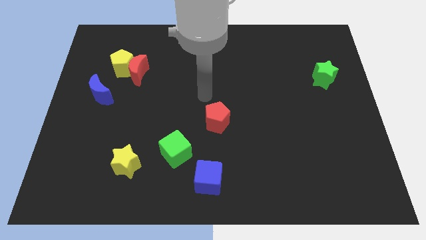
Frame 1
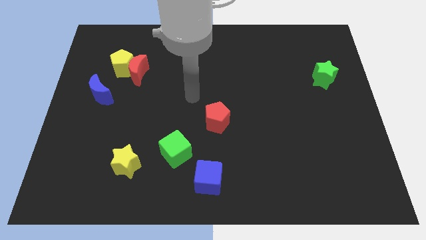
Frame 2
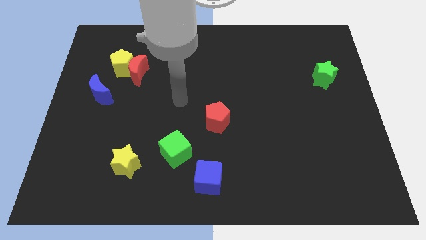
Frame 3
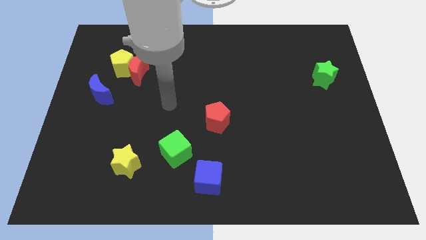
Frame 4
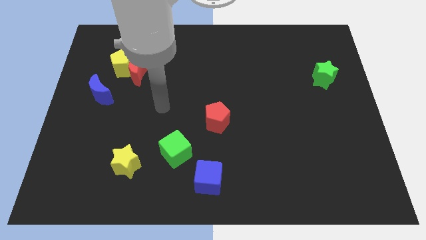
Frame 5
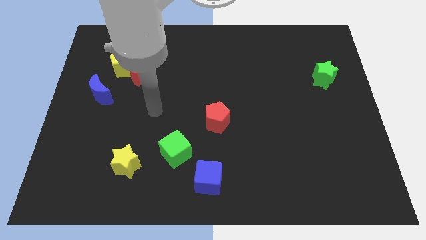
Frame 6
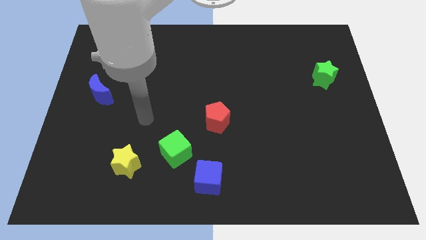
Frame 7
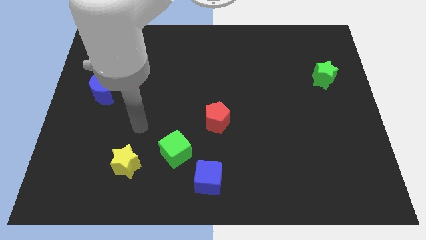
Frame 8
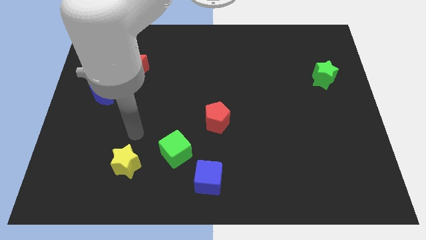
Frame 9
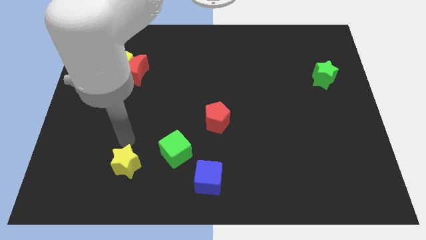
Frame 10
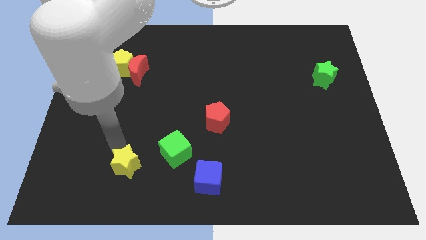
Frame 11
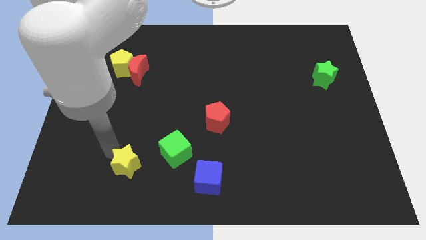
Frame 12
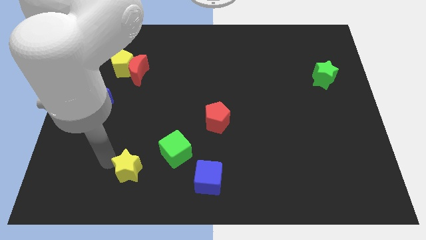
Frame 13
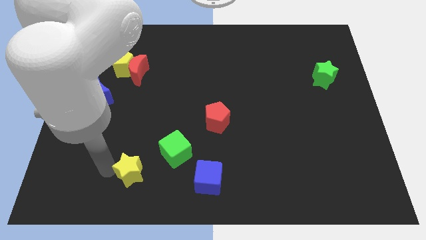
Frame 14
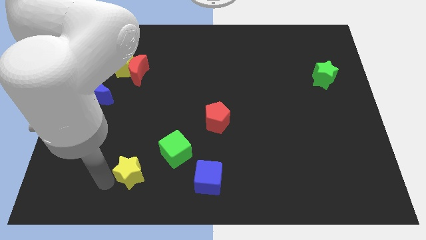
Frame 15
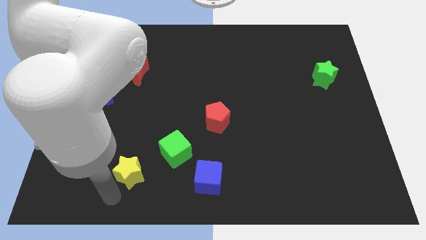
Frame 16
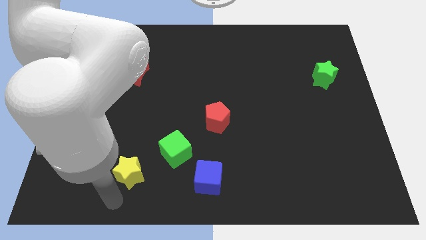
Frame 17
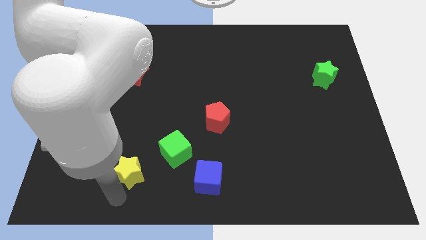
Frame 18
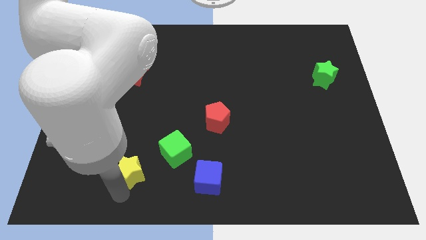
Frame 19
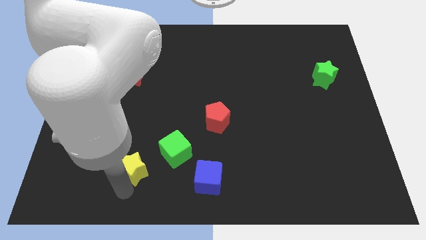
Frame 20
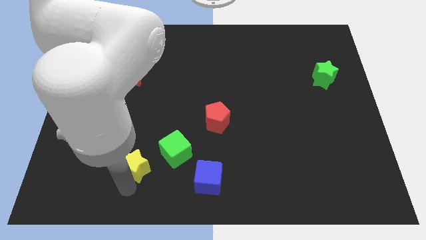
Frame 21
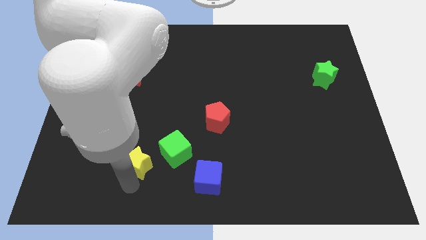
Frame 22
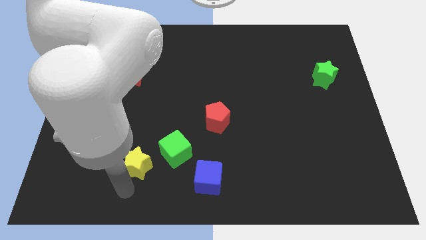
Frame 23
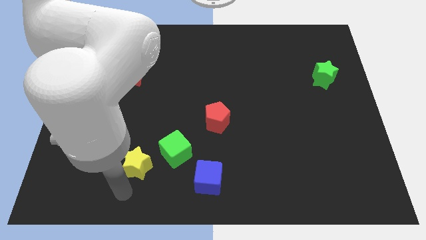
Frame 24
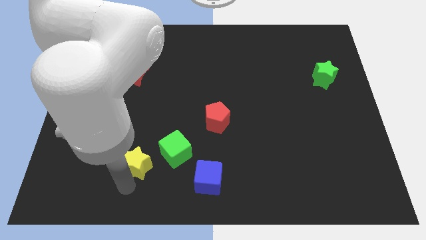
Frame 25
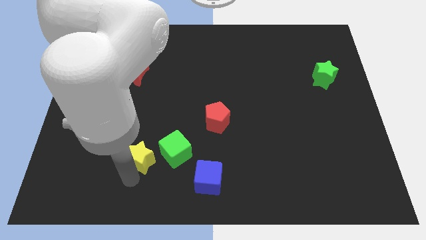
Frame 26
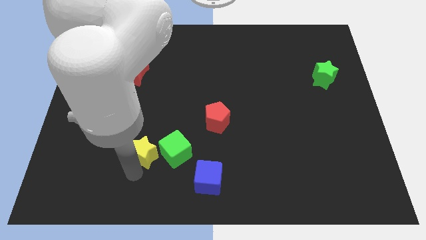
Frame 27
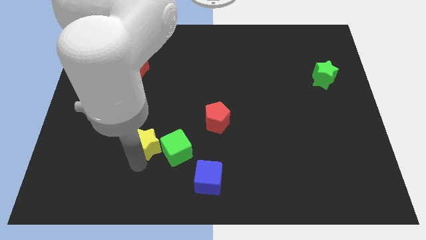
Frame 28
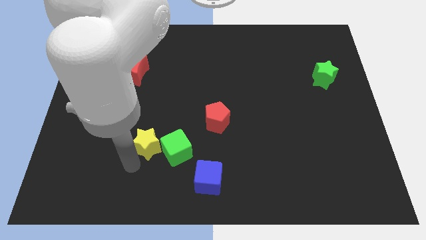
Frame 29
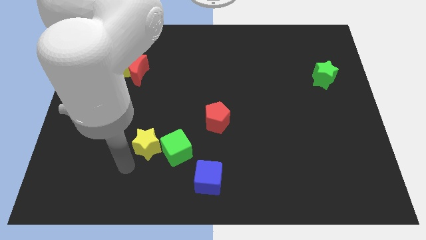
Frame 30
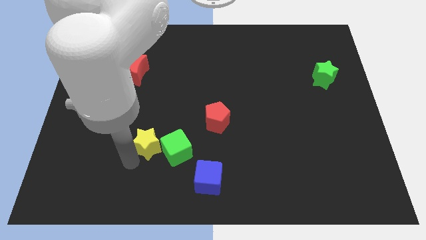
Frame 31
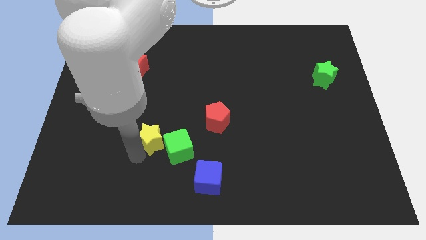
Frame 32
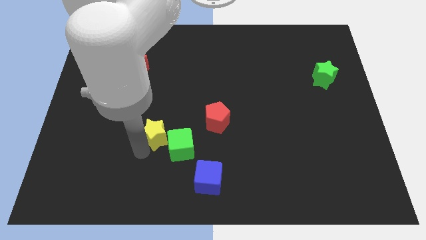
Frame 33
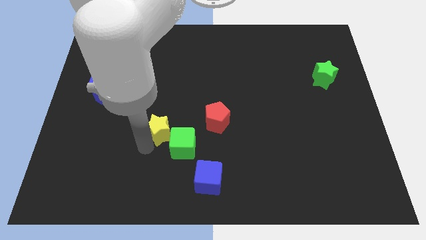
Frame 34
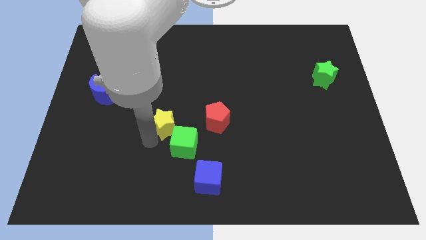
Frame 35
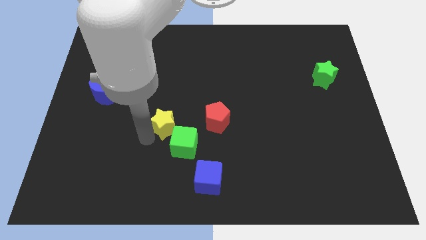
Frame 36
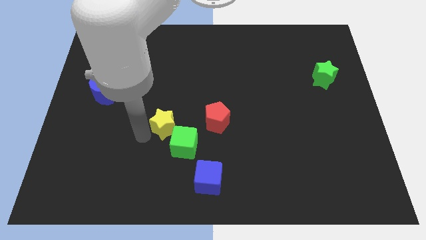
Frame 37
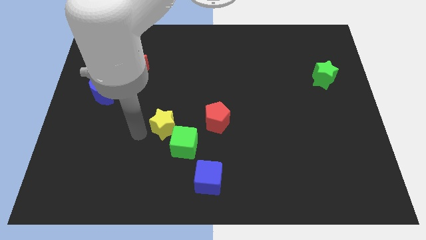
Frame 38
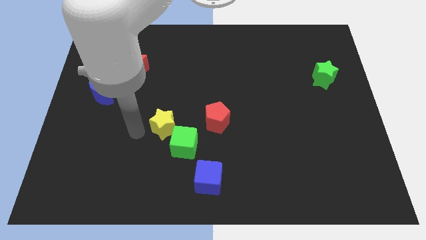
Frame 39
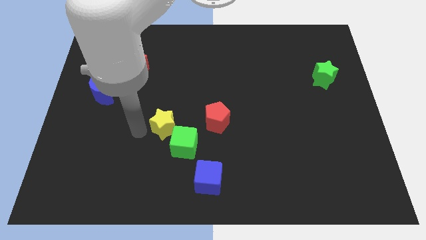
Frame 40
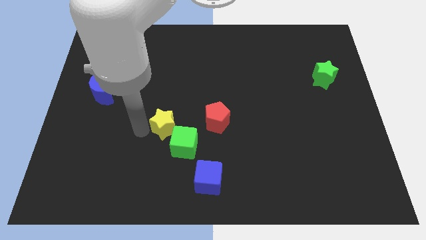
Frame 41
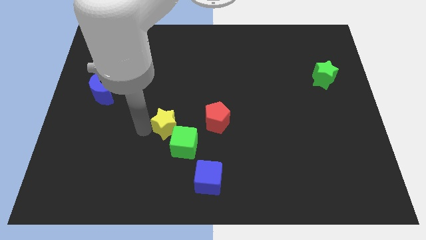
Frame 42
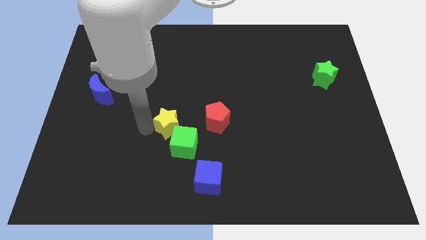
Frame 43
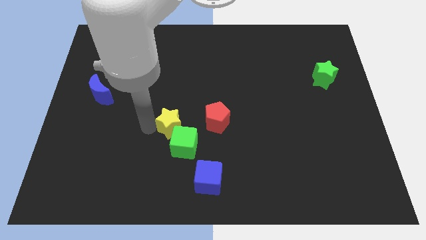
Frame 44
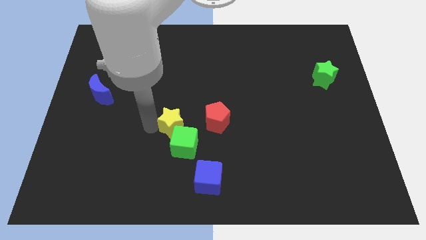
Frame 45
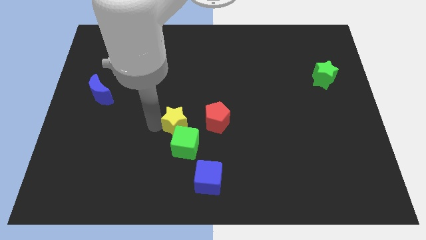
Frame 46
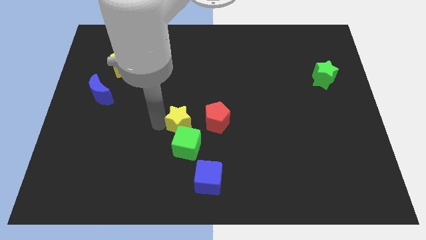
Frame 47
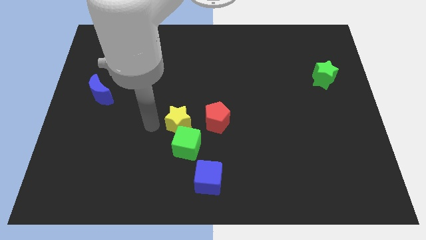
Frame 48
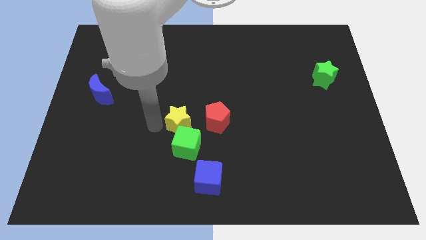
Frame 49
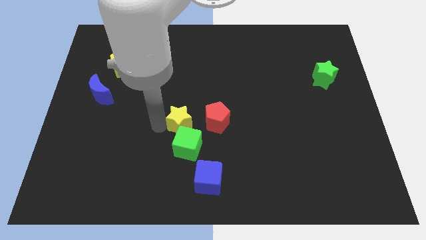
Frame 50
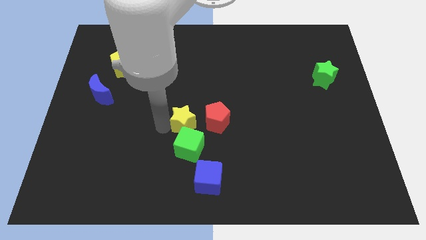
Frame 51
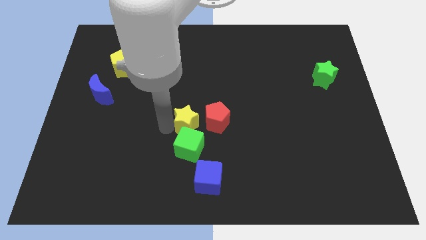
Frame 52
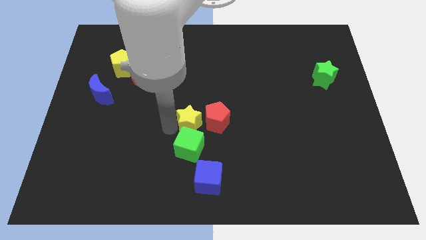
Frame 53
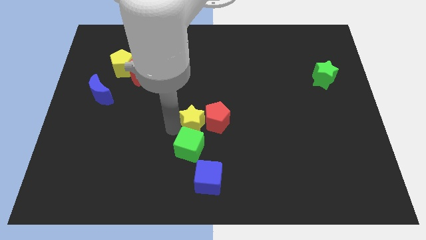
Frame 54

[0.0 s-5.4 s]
push the yellow star to the red pentagon

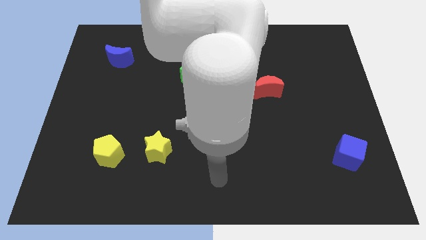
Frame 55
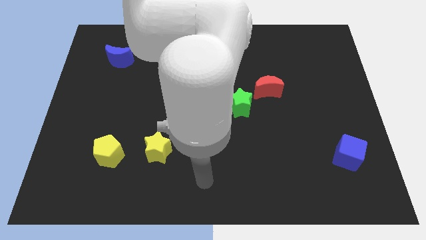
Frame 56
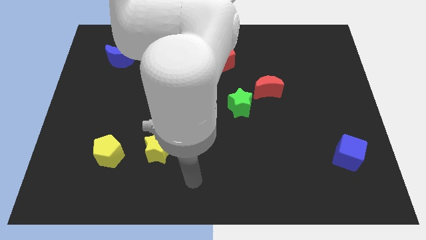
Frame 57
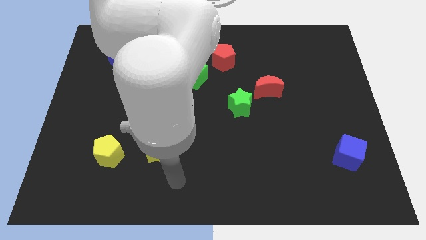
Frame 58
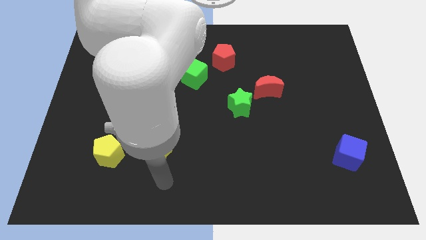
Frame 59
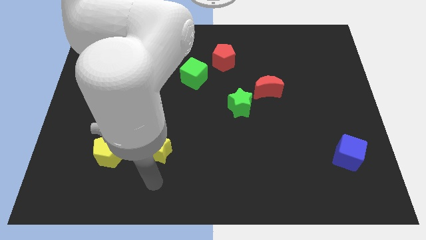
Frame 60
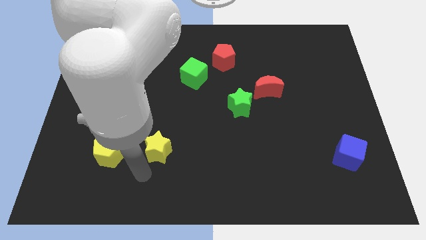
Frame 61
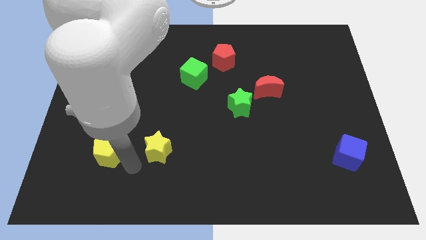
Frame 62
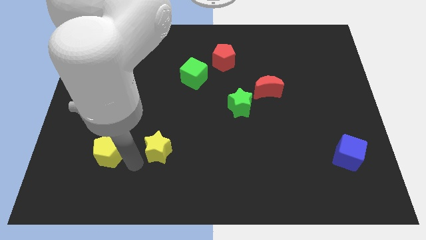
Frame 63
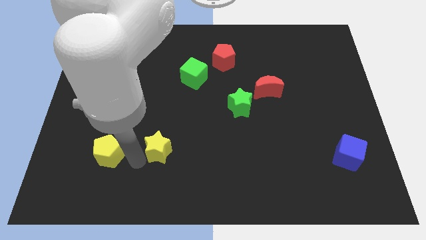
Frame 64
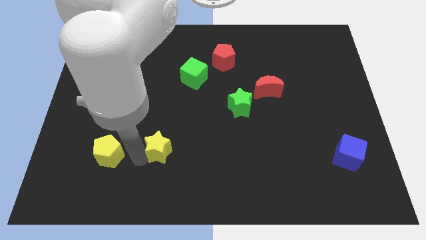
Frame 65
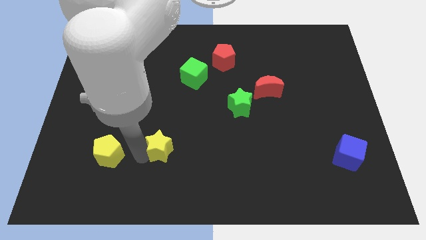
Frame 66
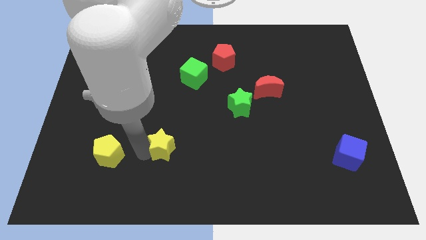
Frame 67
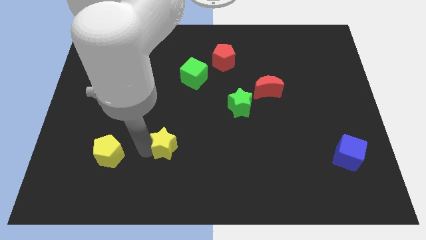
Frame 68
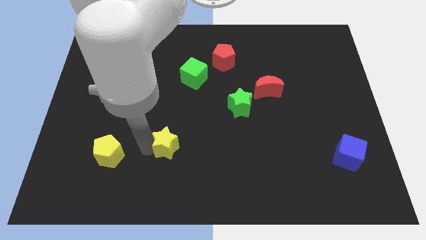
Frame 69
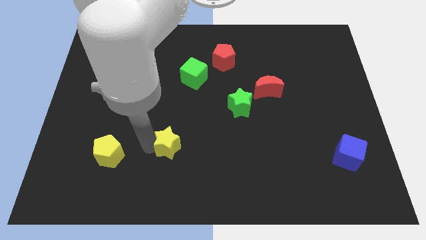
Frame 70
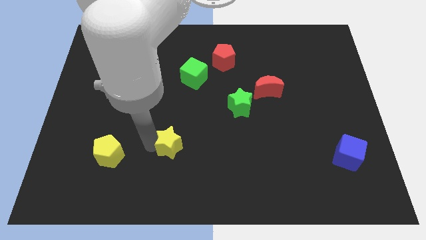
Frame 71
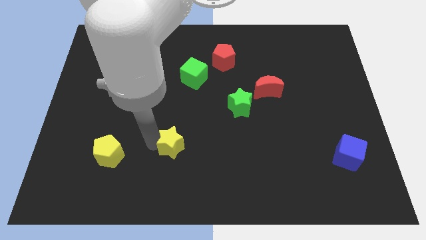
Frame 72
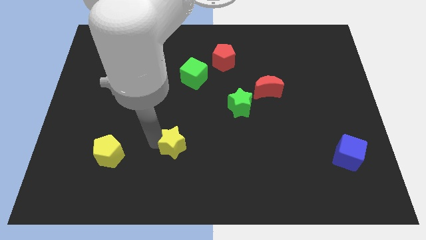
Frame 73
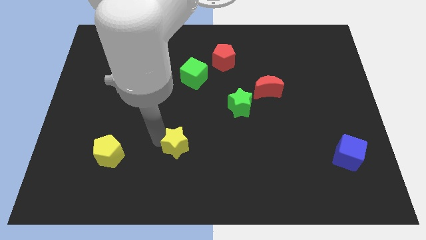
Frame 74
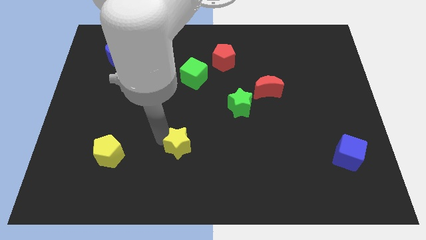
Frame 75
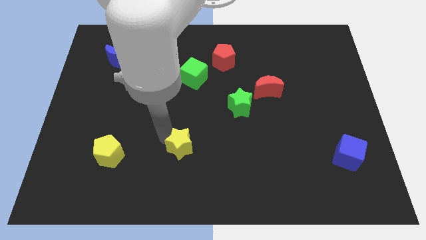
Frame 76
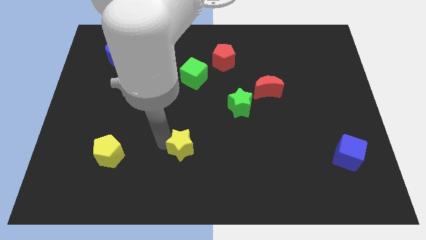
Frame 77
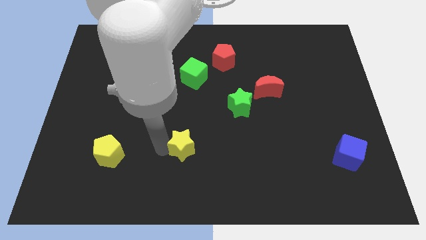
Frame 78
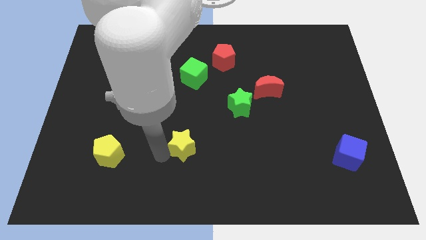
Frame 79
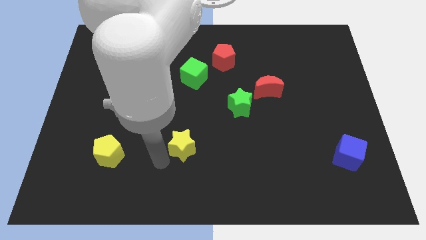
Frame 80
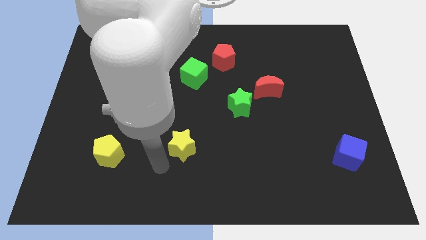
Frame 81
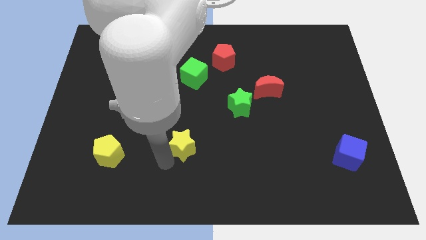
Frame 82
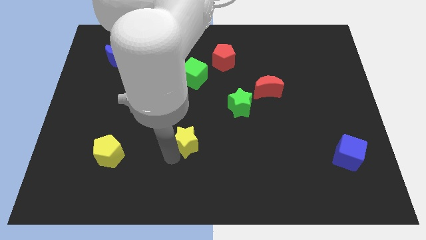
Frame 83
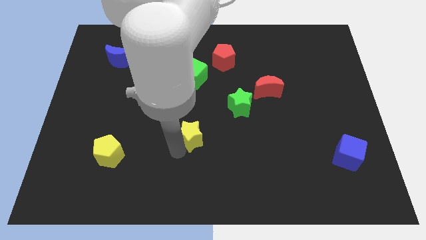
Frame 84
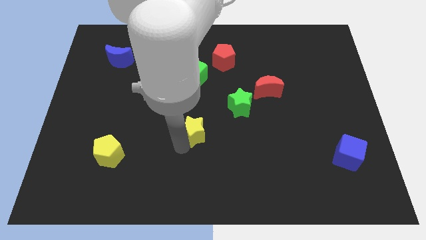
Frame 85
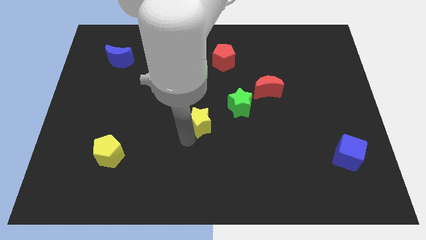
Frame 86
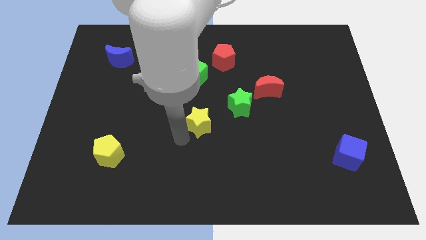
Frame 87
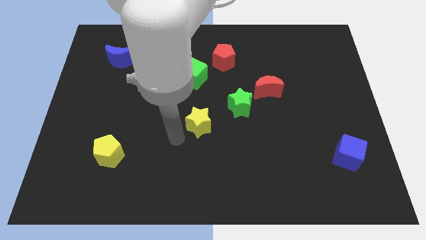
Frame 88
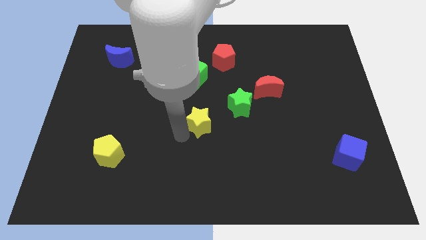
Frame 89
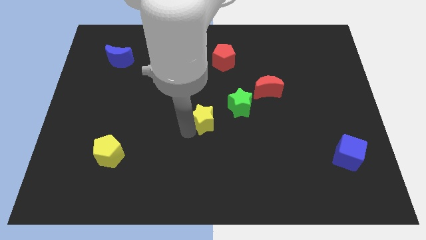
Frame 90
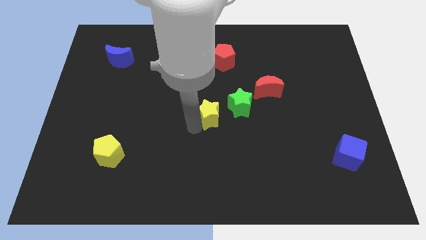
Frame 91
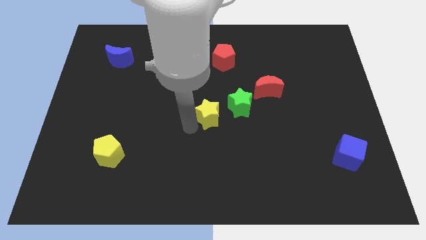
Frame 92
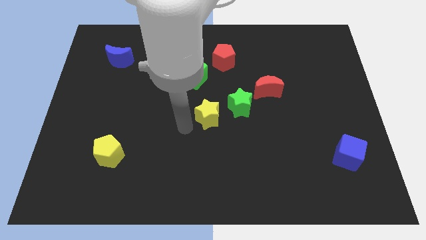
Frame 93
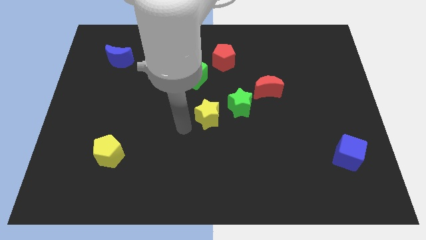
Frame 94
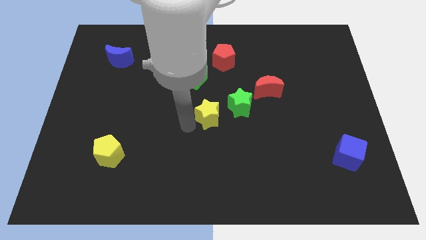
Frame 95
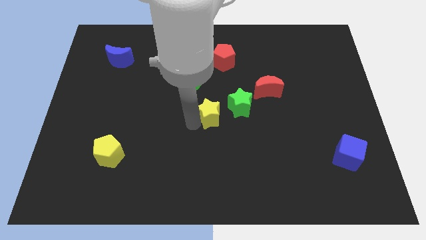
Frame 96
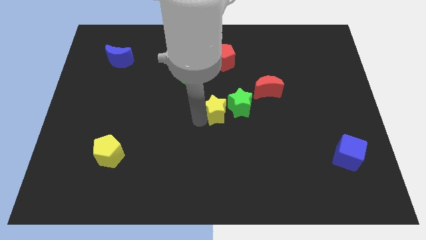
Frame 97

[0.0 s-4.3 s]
push the yellow star towards the green star
